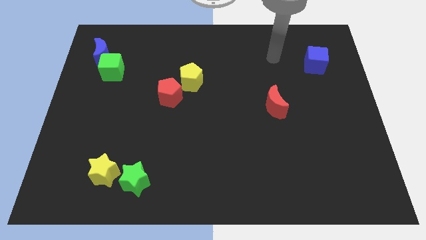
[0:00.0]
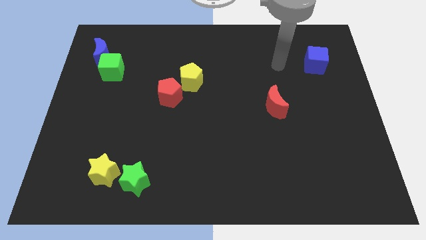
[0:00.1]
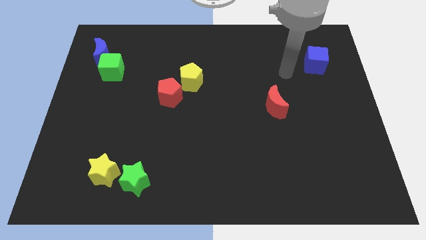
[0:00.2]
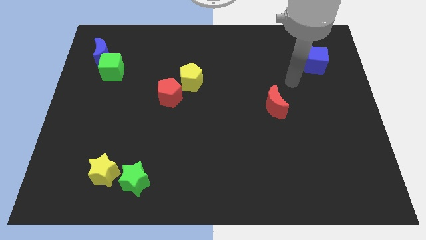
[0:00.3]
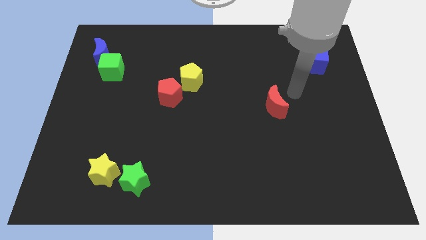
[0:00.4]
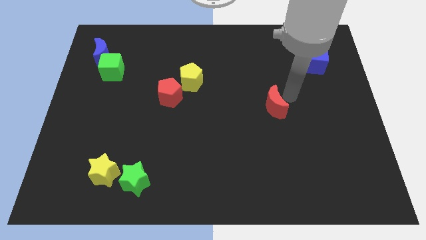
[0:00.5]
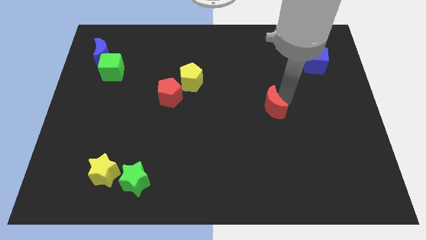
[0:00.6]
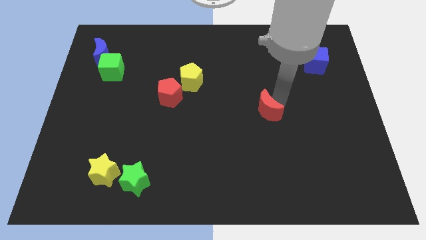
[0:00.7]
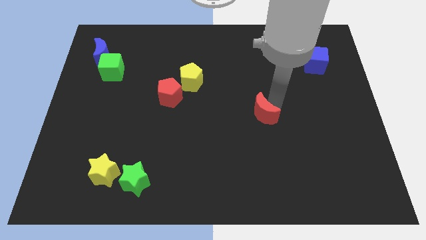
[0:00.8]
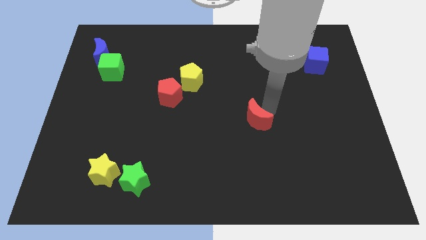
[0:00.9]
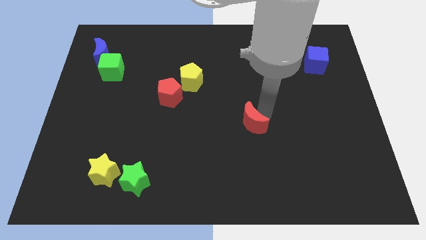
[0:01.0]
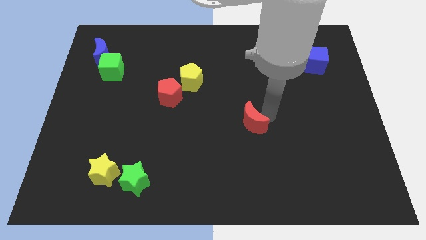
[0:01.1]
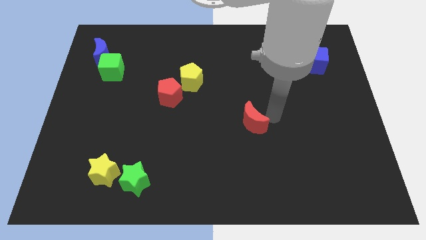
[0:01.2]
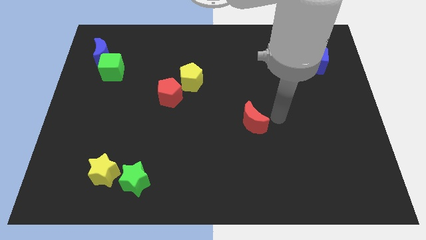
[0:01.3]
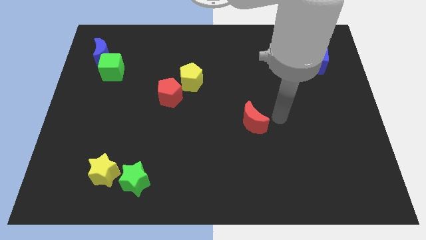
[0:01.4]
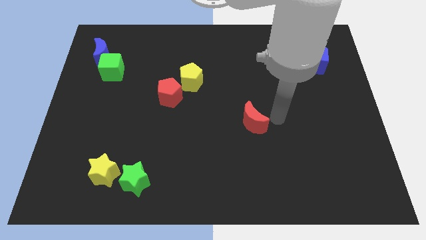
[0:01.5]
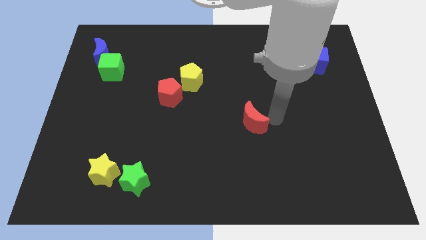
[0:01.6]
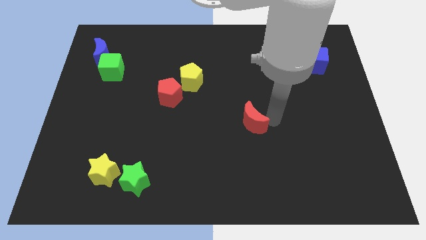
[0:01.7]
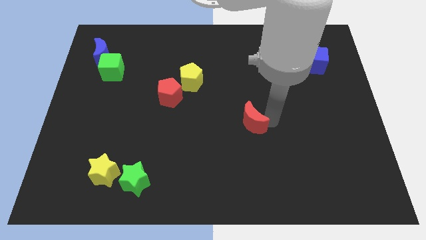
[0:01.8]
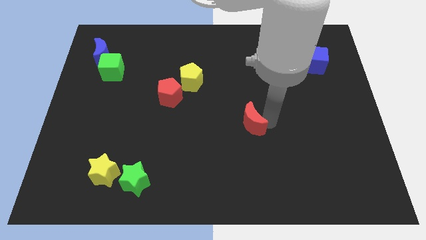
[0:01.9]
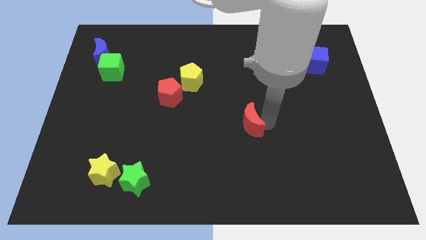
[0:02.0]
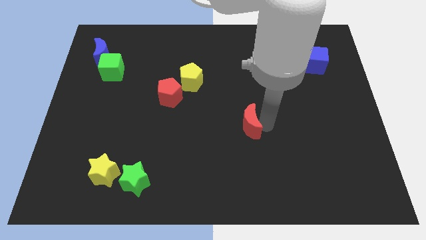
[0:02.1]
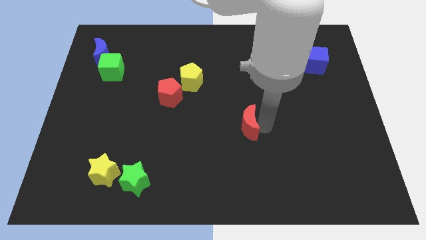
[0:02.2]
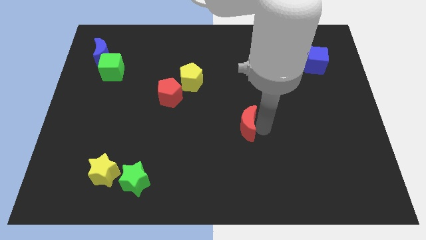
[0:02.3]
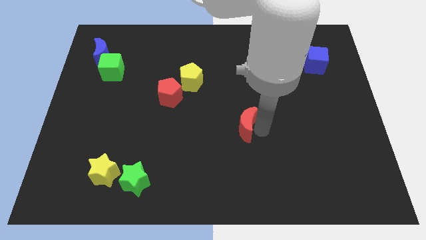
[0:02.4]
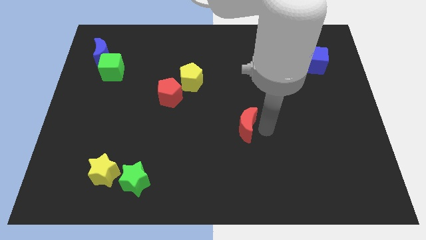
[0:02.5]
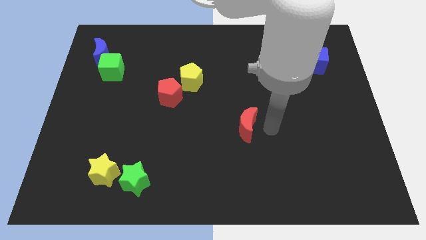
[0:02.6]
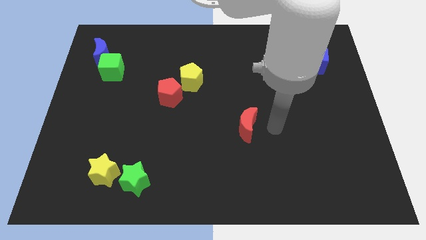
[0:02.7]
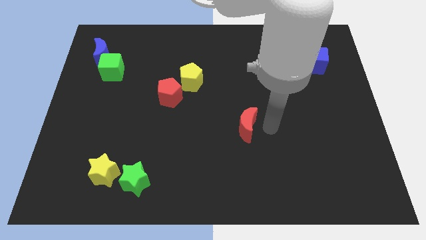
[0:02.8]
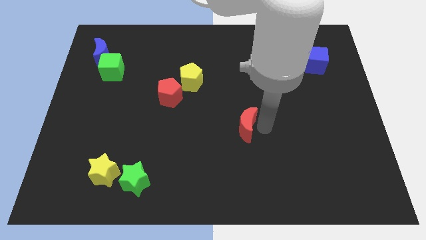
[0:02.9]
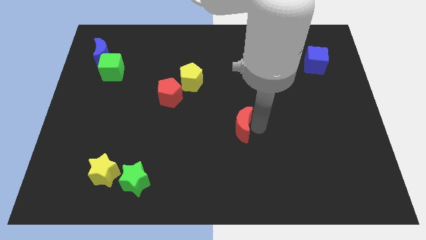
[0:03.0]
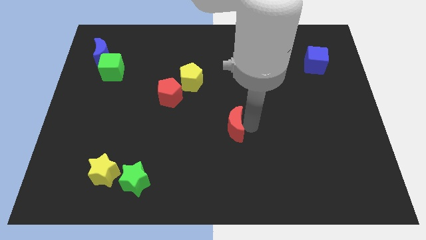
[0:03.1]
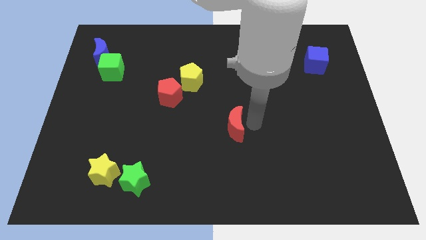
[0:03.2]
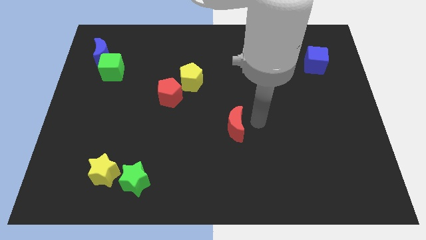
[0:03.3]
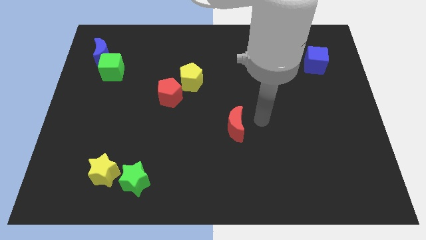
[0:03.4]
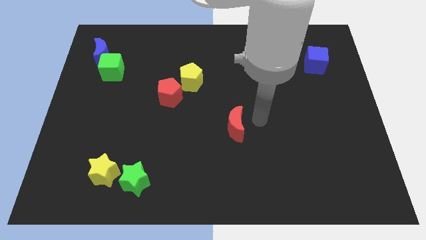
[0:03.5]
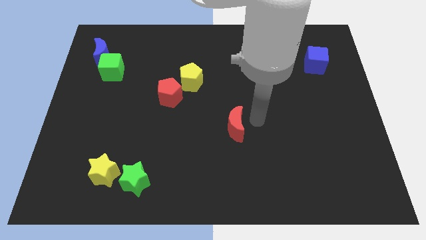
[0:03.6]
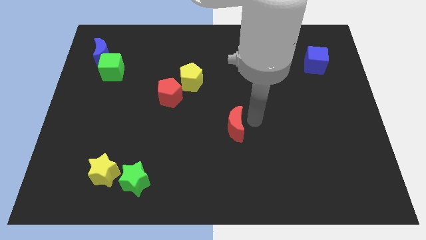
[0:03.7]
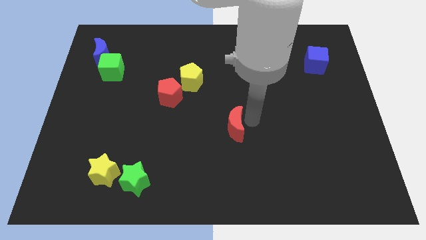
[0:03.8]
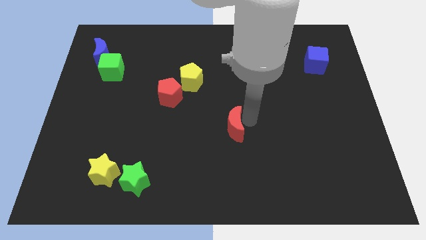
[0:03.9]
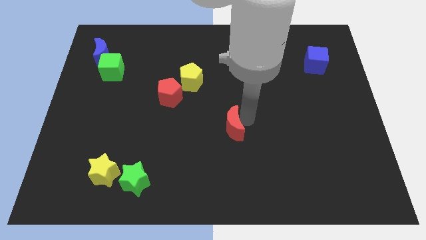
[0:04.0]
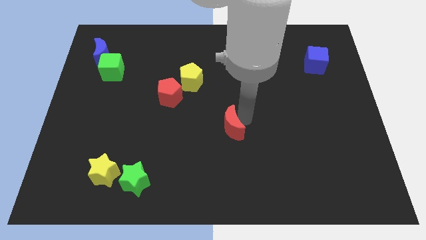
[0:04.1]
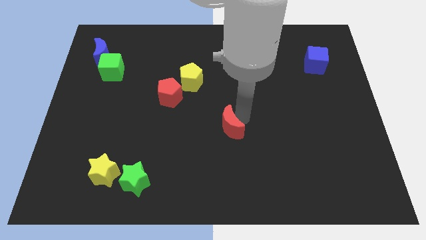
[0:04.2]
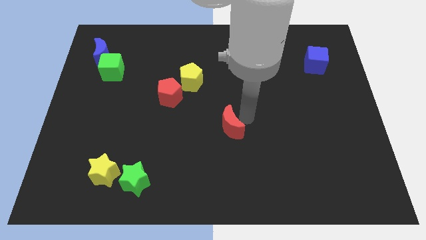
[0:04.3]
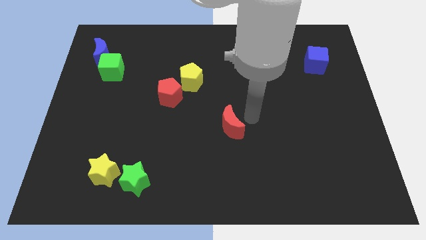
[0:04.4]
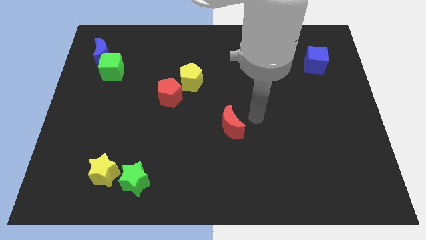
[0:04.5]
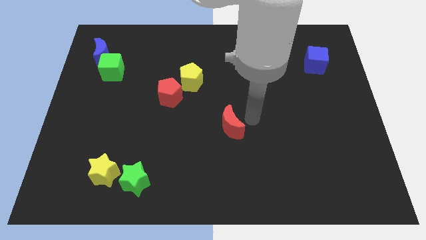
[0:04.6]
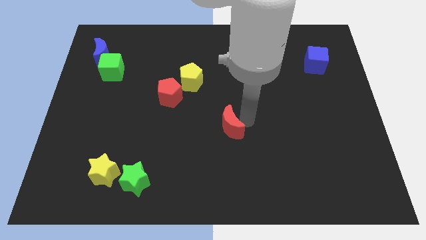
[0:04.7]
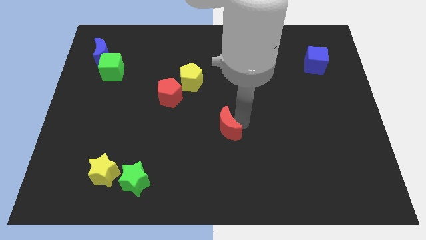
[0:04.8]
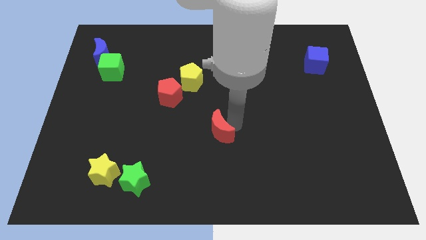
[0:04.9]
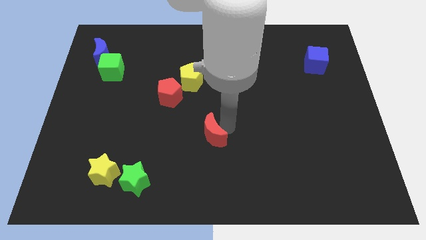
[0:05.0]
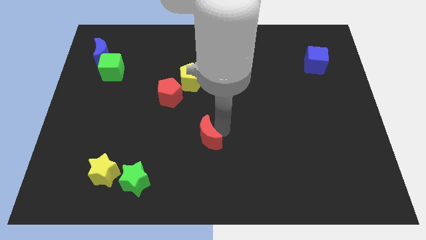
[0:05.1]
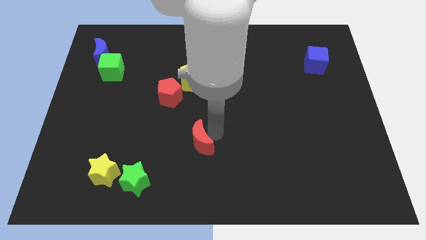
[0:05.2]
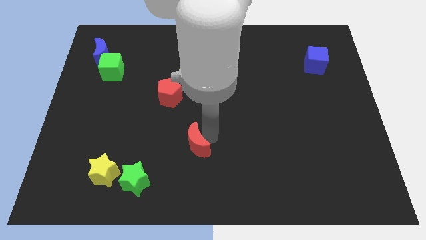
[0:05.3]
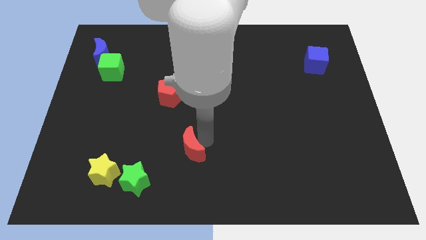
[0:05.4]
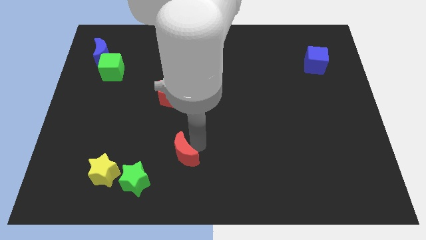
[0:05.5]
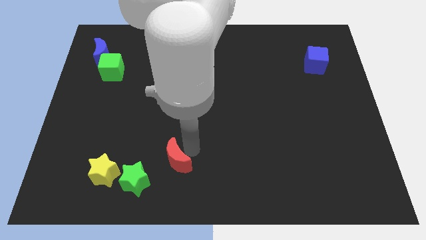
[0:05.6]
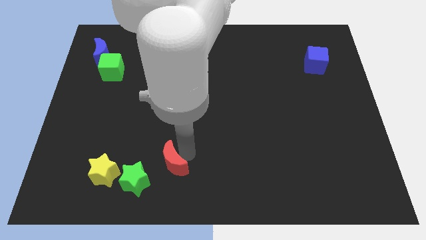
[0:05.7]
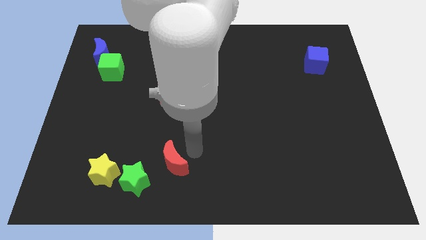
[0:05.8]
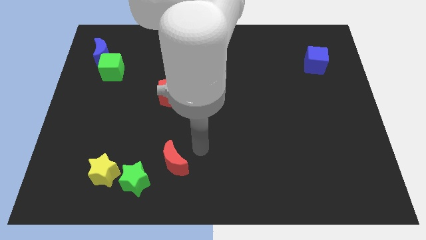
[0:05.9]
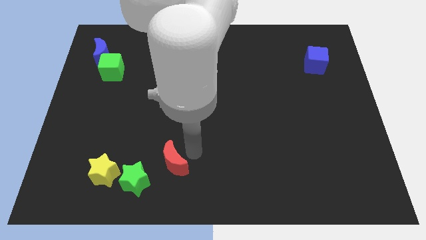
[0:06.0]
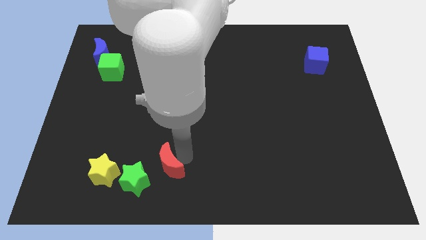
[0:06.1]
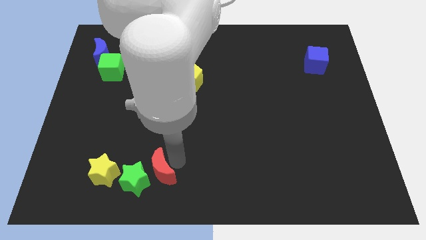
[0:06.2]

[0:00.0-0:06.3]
put the red moon next to the green star

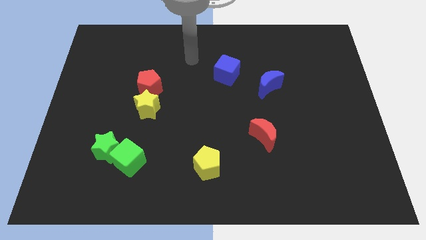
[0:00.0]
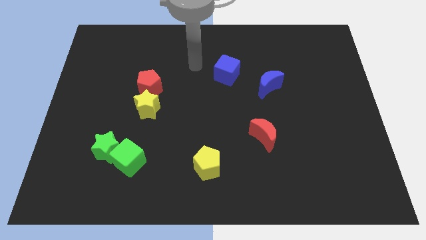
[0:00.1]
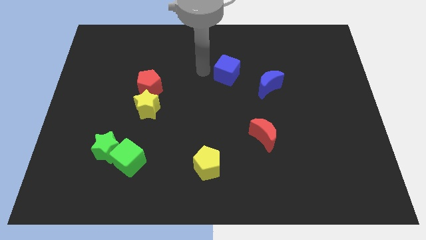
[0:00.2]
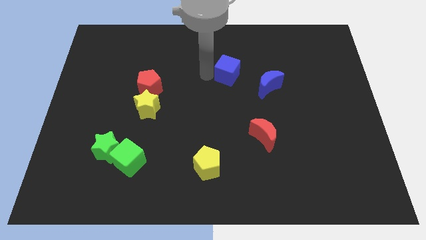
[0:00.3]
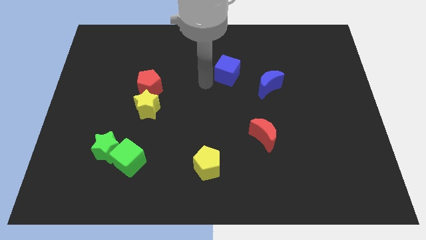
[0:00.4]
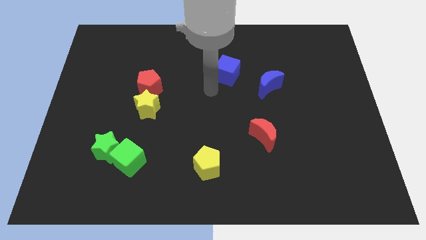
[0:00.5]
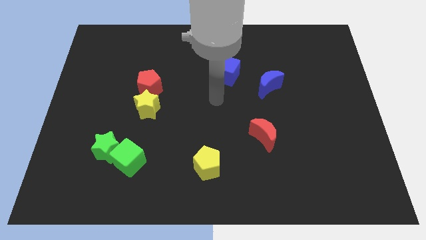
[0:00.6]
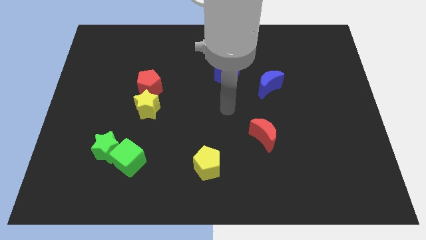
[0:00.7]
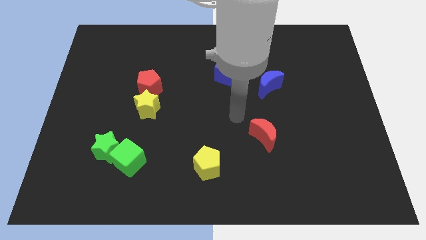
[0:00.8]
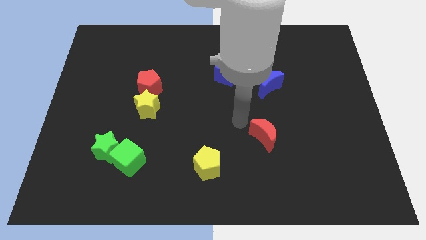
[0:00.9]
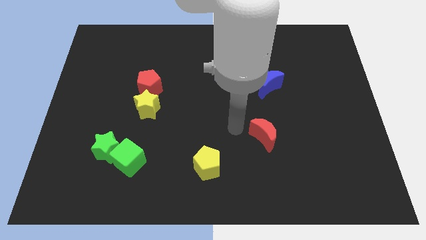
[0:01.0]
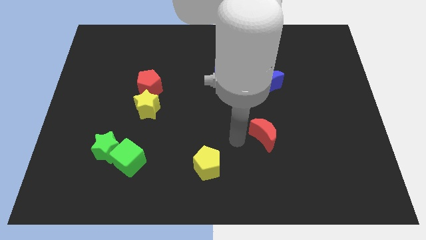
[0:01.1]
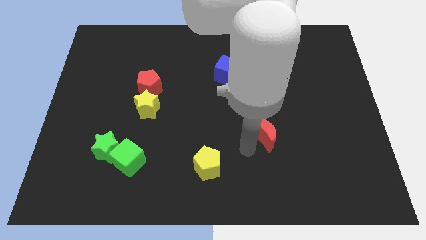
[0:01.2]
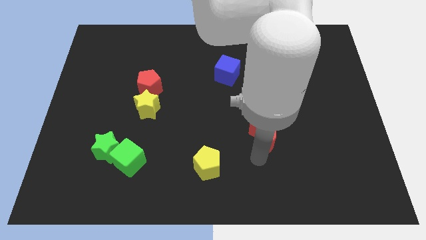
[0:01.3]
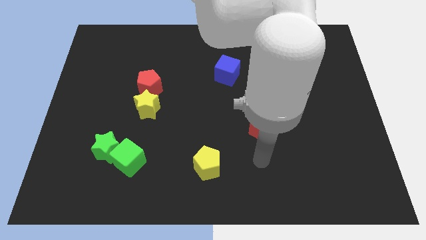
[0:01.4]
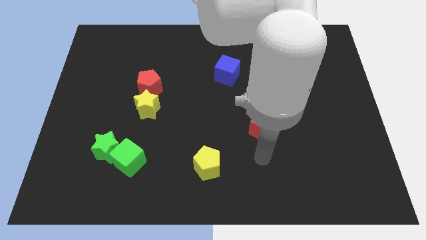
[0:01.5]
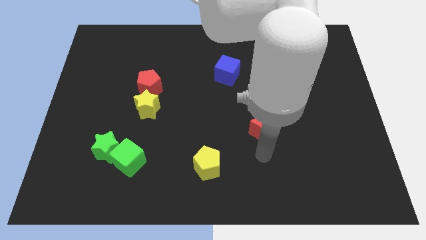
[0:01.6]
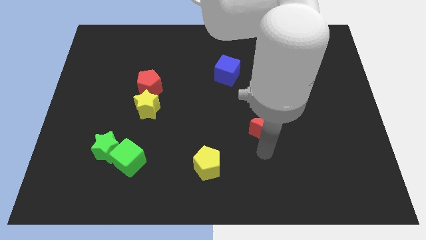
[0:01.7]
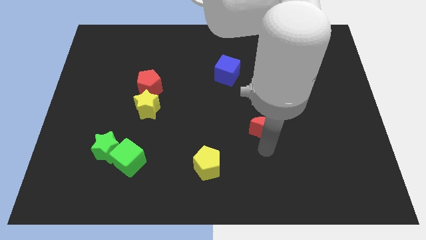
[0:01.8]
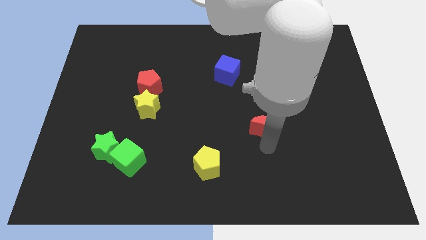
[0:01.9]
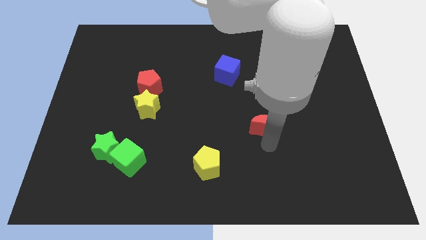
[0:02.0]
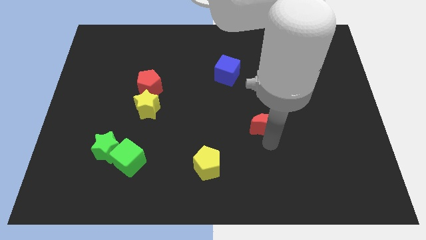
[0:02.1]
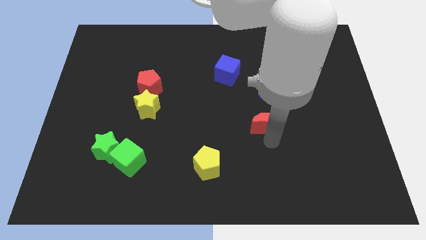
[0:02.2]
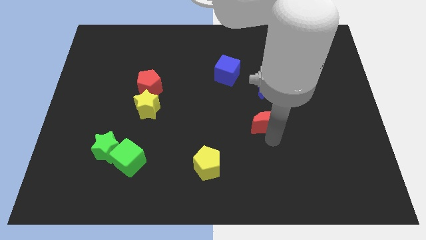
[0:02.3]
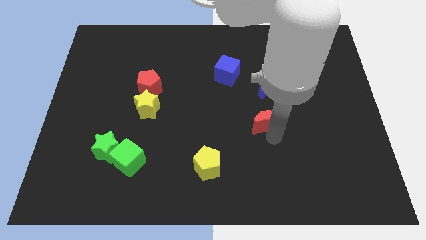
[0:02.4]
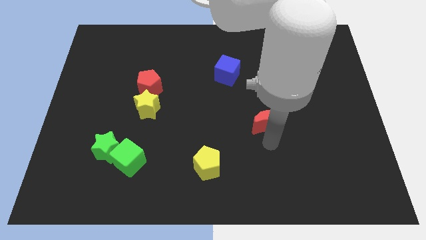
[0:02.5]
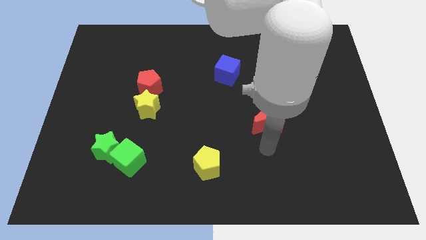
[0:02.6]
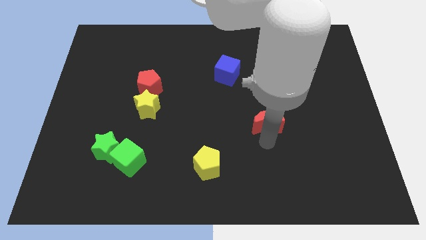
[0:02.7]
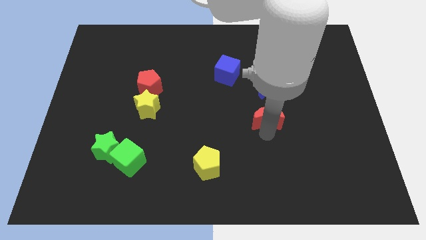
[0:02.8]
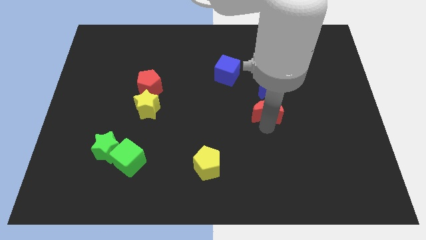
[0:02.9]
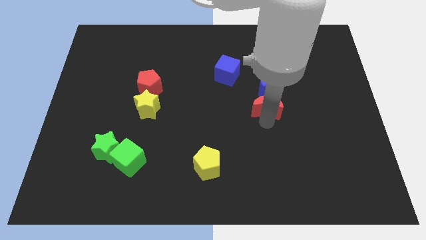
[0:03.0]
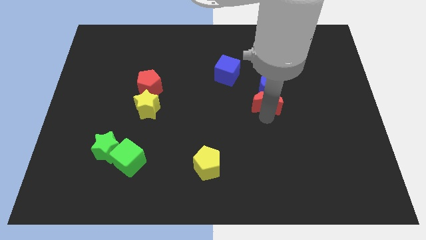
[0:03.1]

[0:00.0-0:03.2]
slide the red moon to the blue moon
